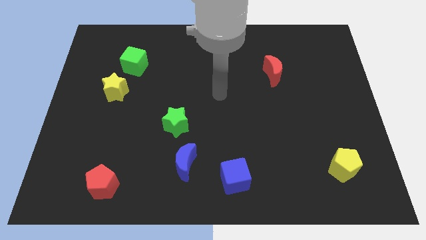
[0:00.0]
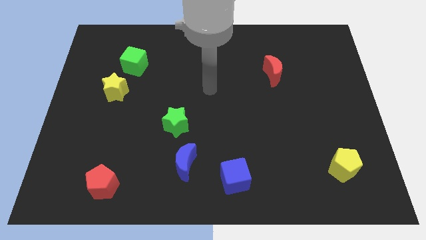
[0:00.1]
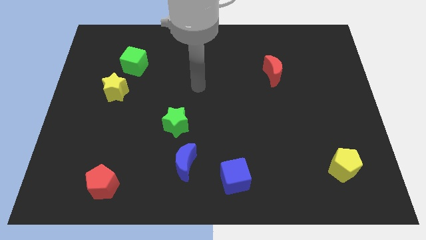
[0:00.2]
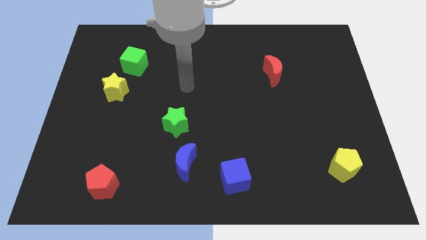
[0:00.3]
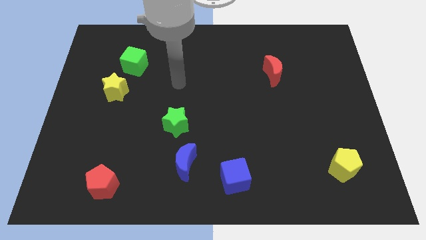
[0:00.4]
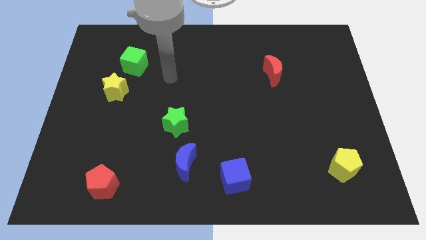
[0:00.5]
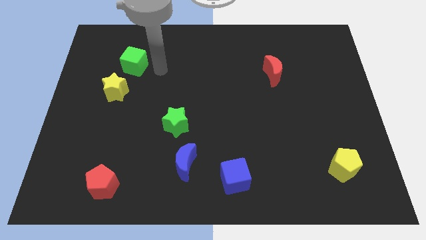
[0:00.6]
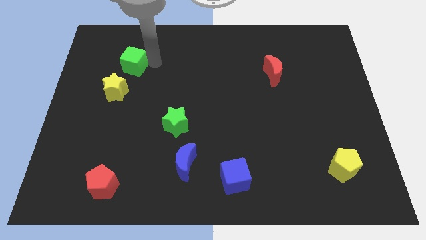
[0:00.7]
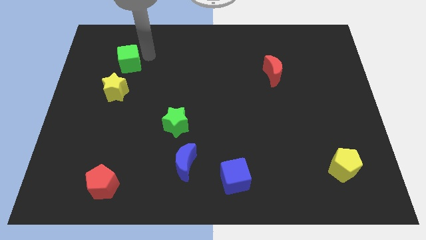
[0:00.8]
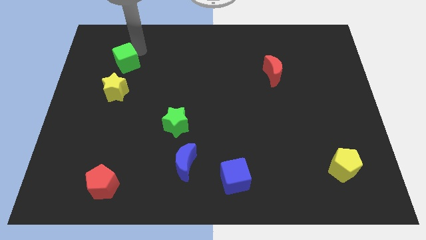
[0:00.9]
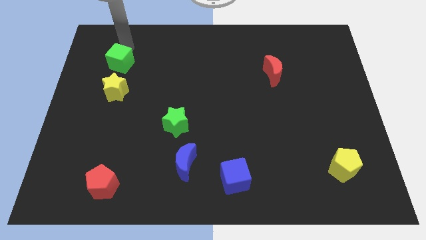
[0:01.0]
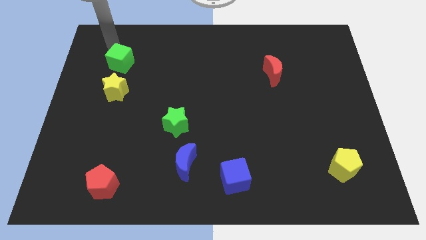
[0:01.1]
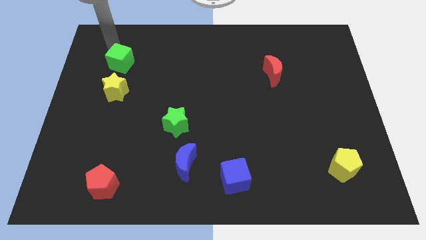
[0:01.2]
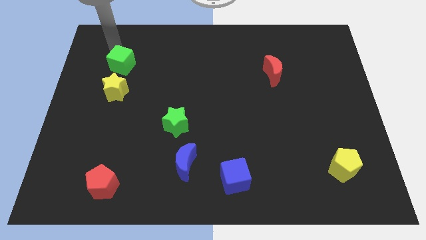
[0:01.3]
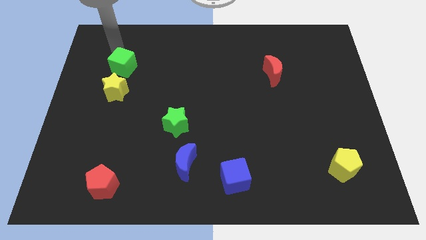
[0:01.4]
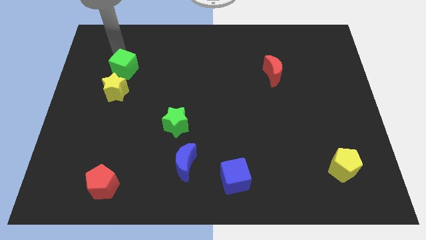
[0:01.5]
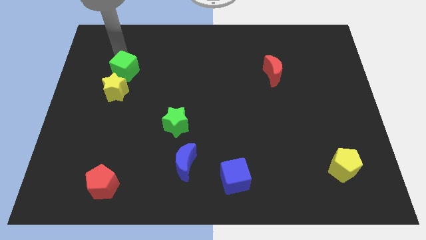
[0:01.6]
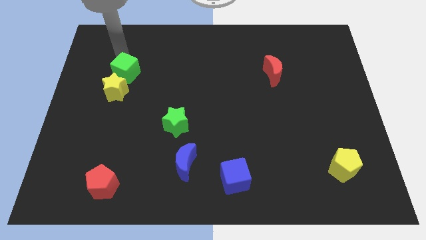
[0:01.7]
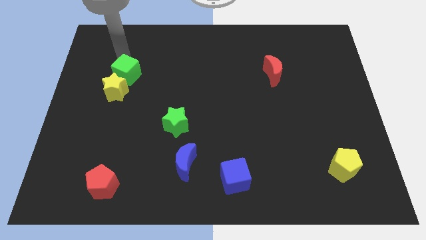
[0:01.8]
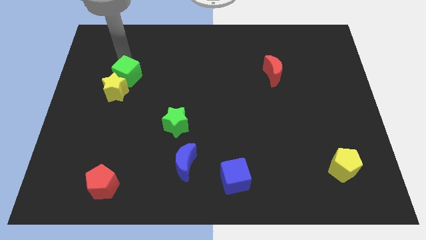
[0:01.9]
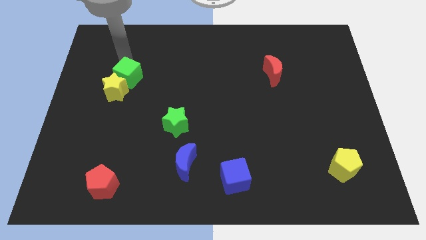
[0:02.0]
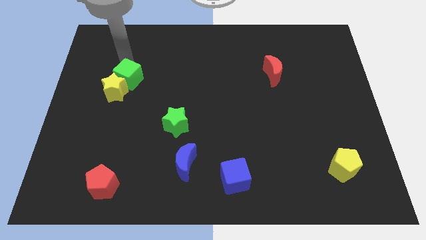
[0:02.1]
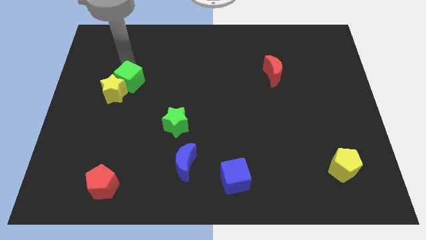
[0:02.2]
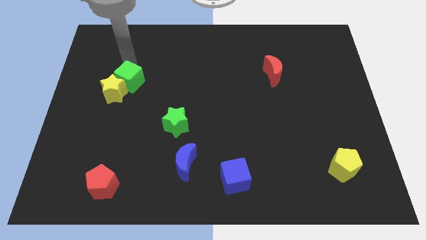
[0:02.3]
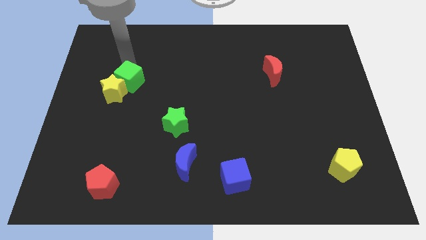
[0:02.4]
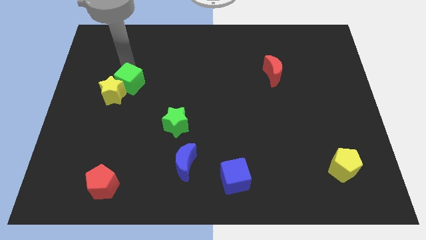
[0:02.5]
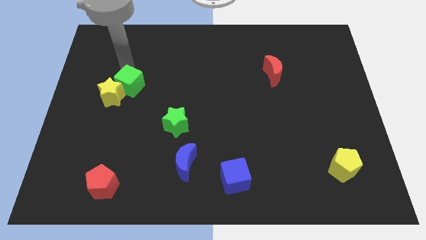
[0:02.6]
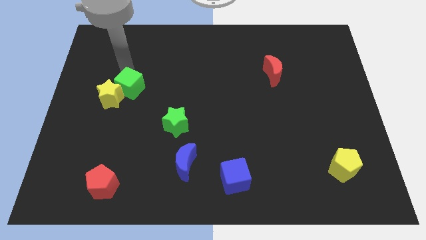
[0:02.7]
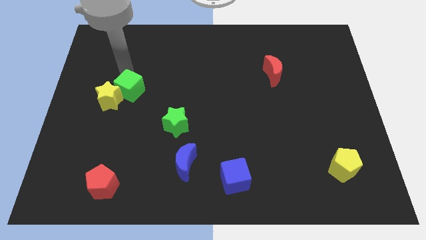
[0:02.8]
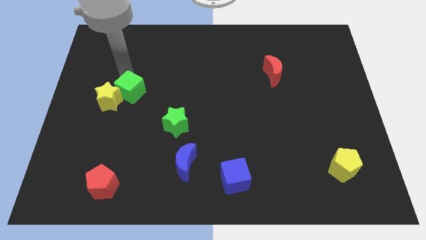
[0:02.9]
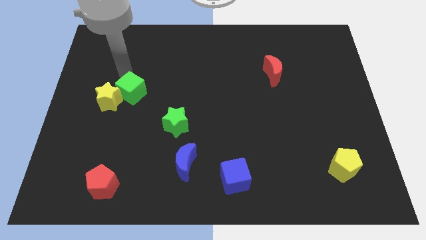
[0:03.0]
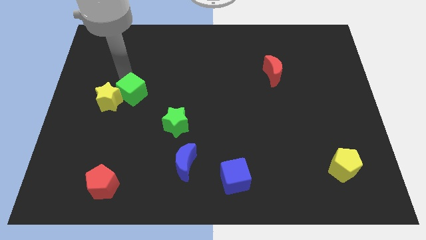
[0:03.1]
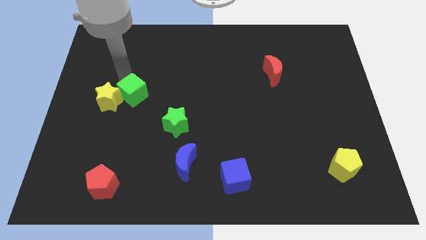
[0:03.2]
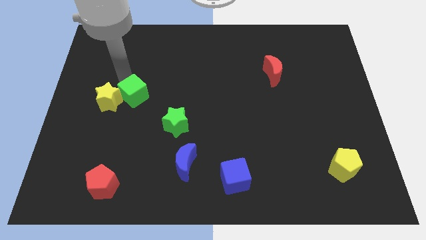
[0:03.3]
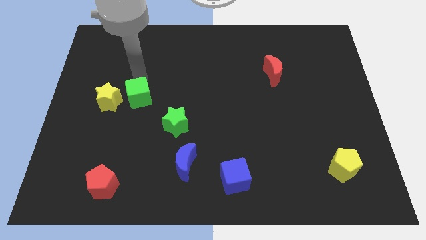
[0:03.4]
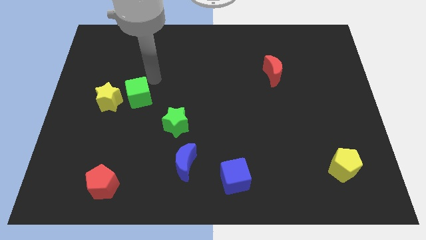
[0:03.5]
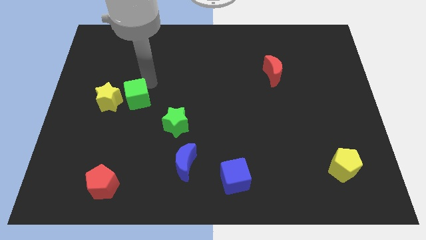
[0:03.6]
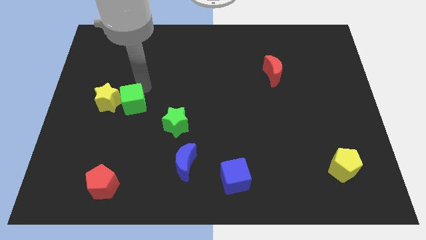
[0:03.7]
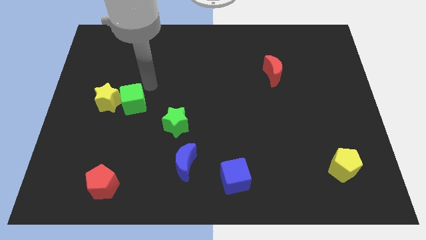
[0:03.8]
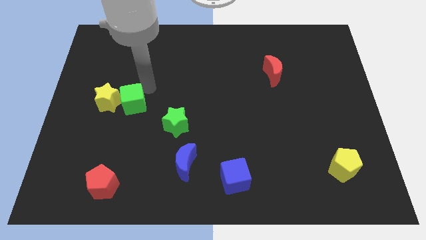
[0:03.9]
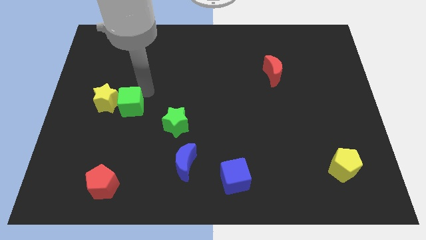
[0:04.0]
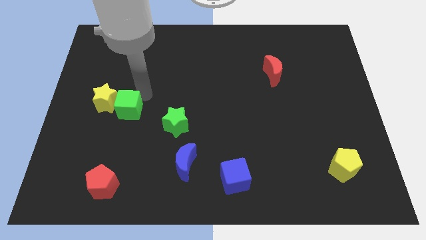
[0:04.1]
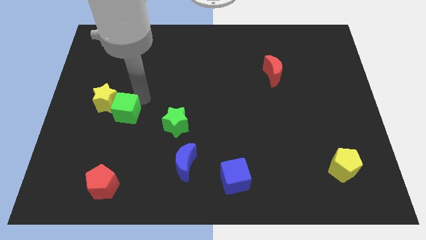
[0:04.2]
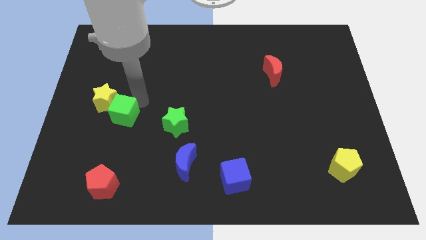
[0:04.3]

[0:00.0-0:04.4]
move the green cube to the bottom of the yellow star

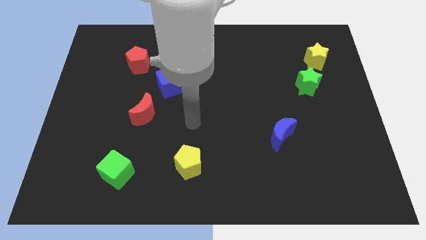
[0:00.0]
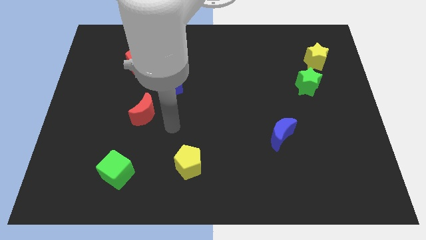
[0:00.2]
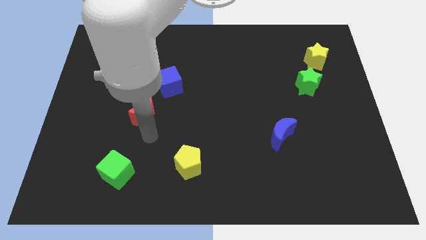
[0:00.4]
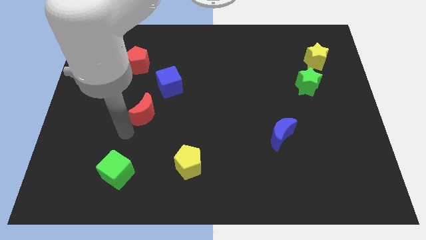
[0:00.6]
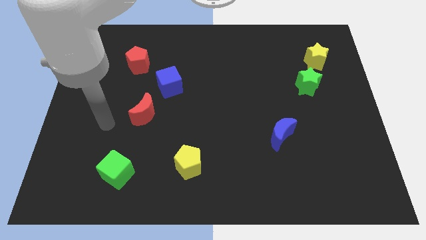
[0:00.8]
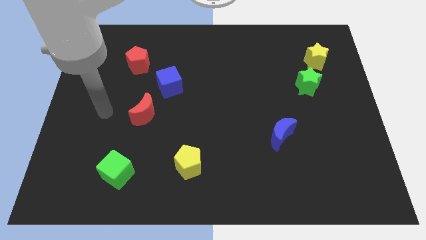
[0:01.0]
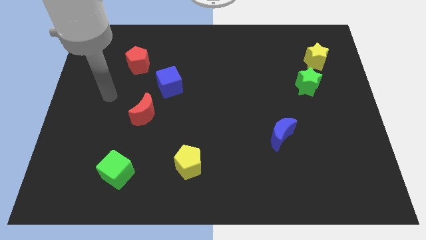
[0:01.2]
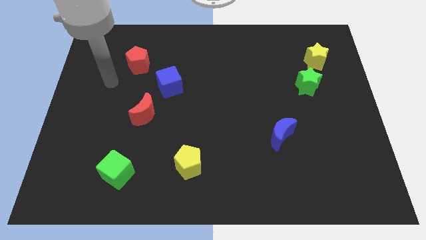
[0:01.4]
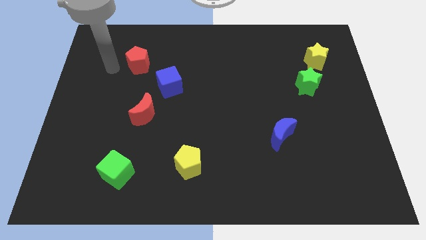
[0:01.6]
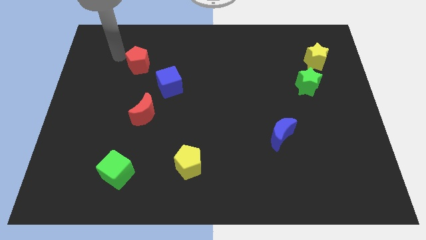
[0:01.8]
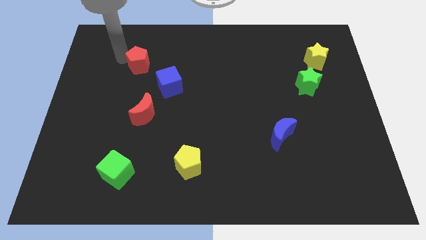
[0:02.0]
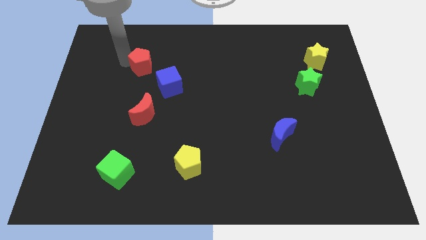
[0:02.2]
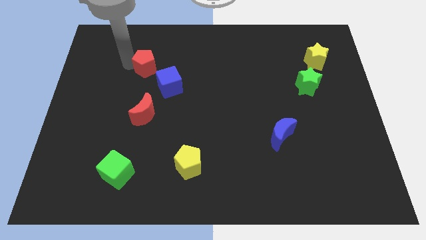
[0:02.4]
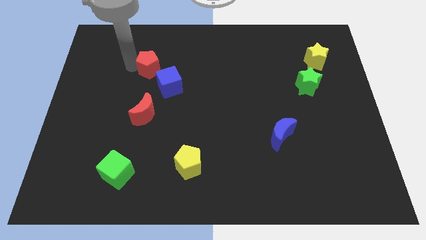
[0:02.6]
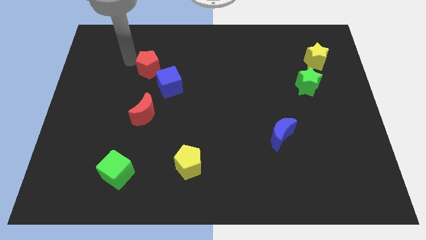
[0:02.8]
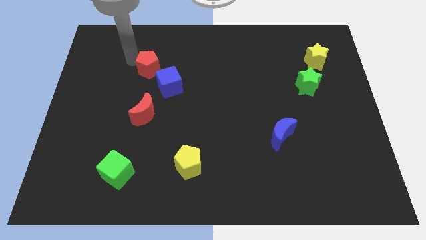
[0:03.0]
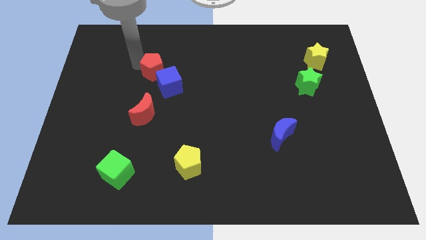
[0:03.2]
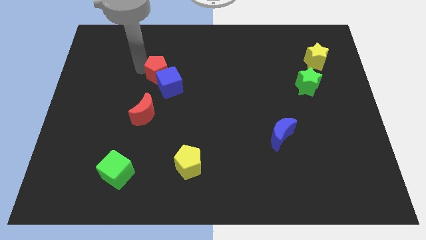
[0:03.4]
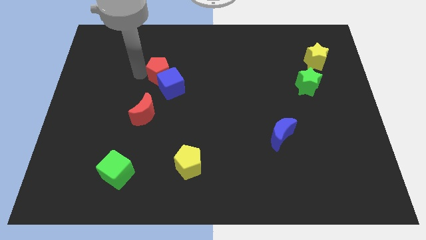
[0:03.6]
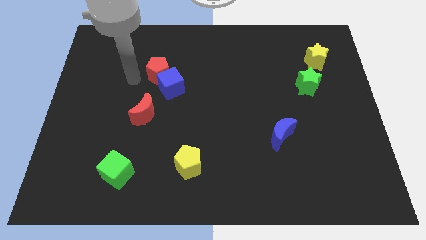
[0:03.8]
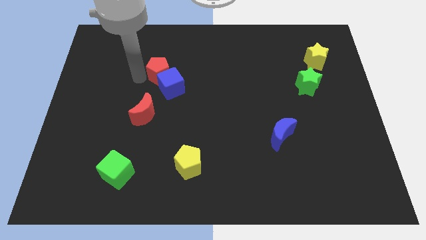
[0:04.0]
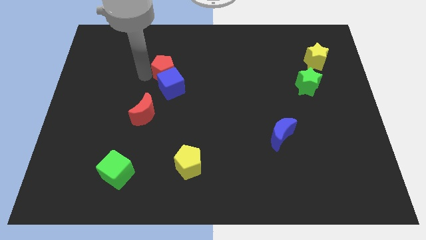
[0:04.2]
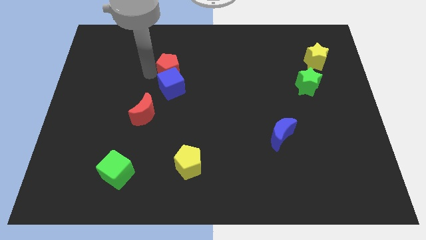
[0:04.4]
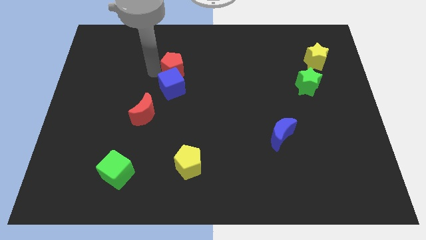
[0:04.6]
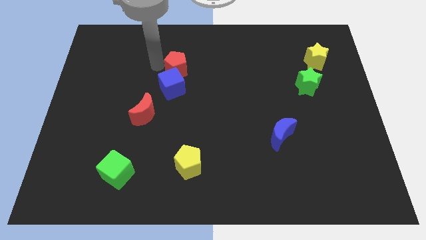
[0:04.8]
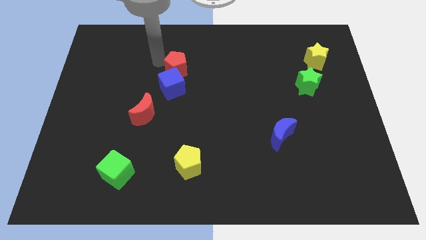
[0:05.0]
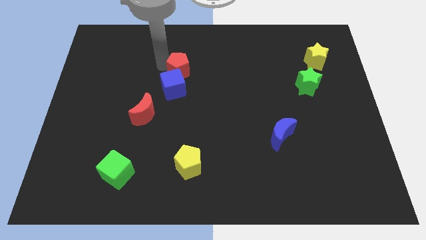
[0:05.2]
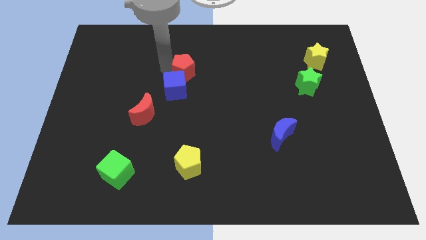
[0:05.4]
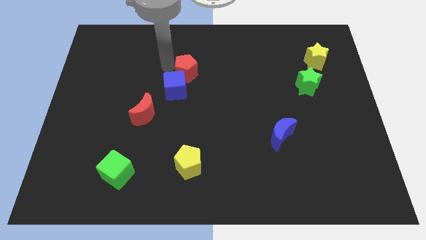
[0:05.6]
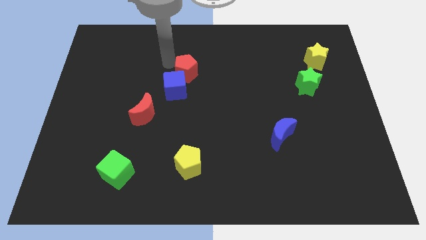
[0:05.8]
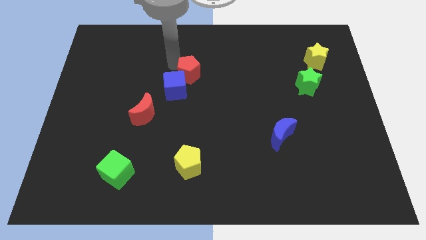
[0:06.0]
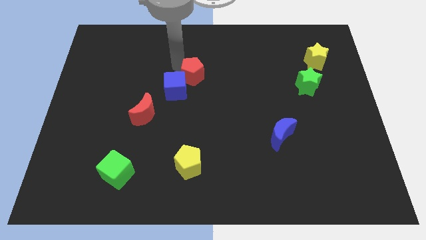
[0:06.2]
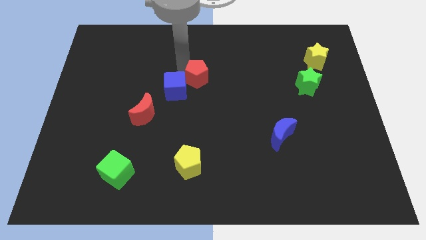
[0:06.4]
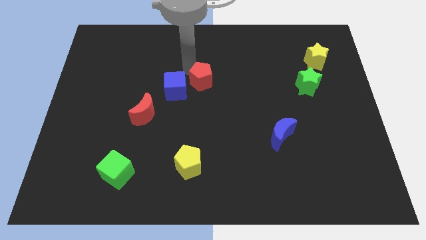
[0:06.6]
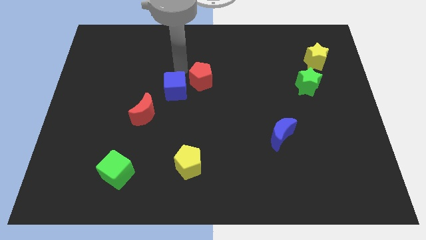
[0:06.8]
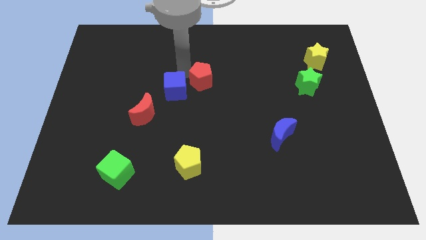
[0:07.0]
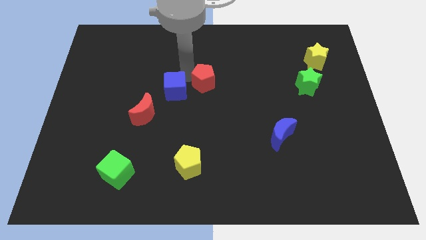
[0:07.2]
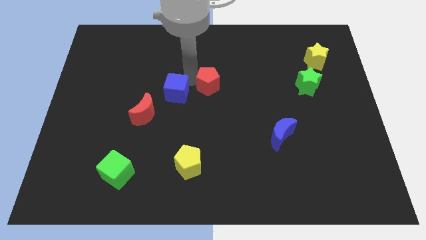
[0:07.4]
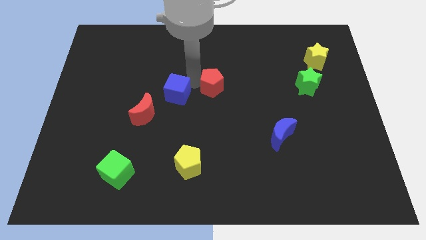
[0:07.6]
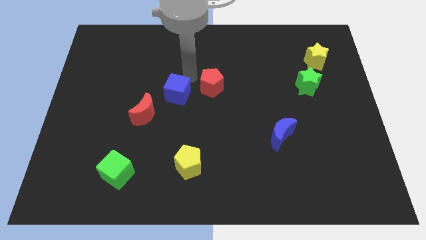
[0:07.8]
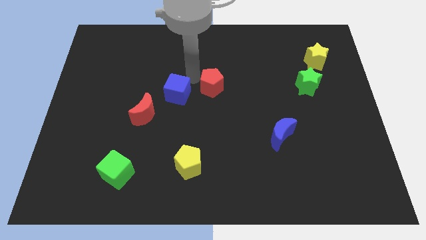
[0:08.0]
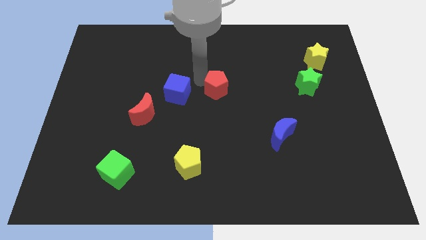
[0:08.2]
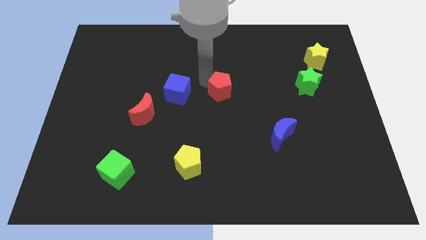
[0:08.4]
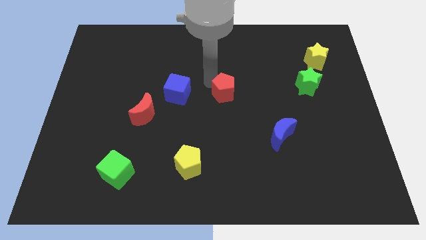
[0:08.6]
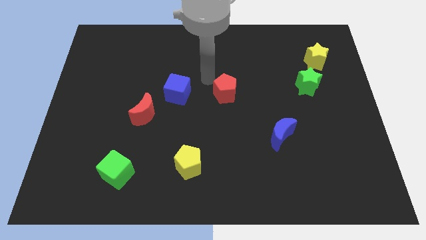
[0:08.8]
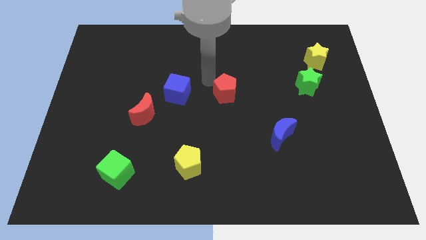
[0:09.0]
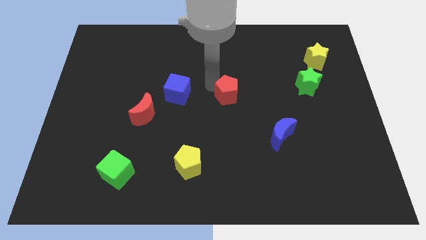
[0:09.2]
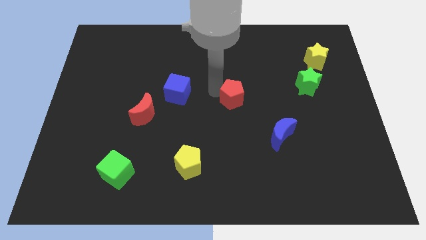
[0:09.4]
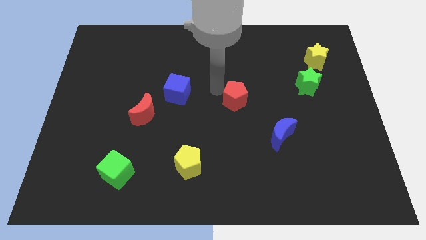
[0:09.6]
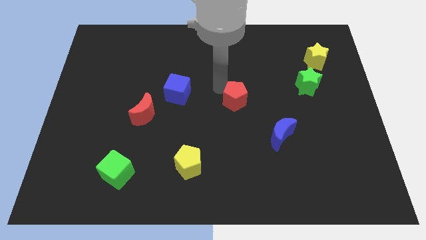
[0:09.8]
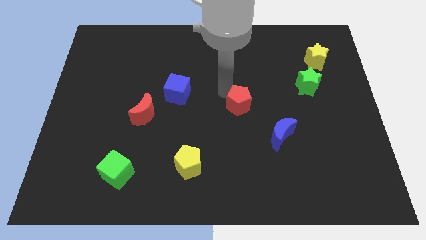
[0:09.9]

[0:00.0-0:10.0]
put the red pentagon to the top left of the blue moon
